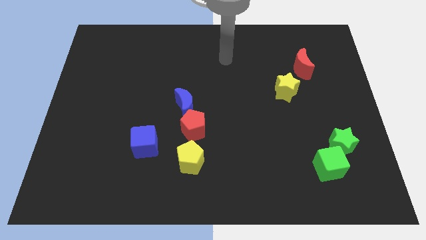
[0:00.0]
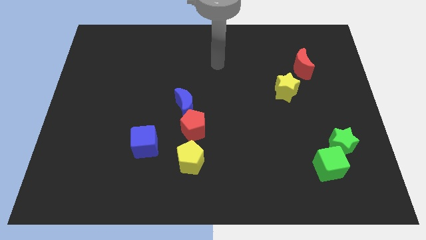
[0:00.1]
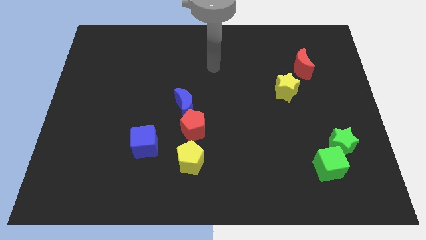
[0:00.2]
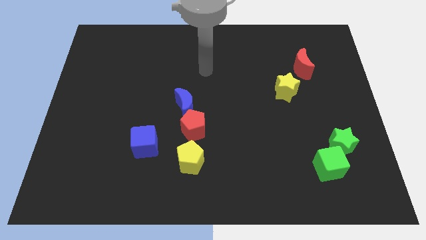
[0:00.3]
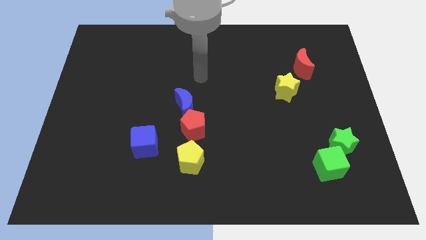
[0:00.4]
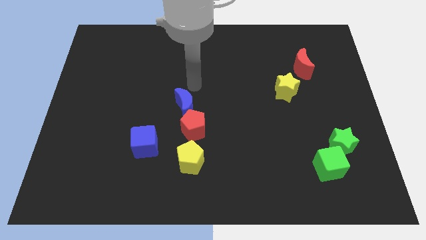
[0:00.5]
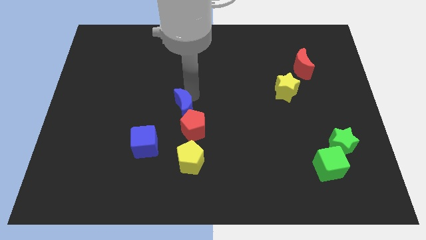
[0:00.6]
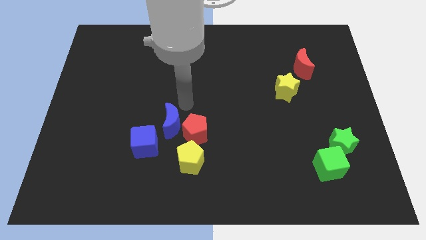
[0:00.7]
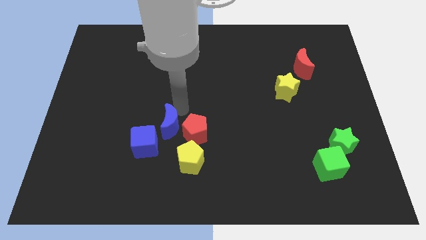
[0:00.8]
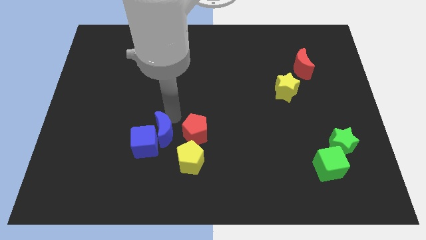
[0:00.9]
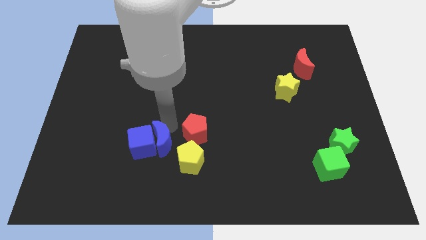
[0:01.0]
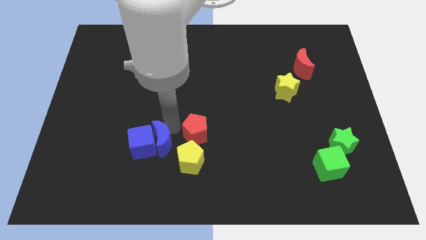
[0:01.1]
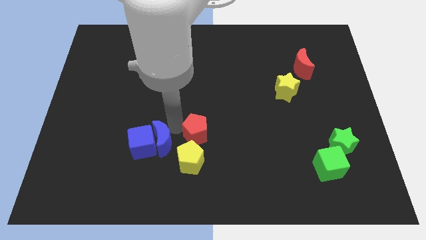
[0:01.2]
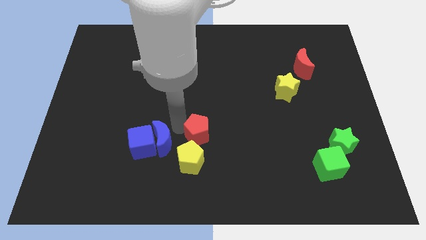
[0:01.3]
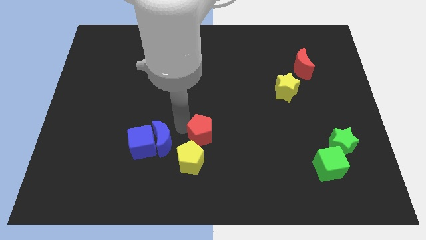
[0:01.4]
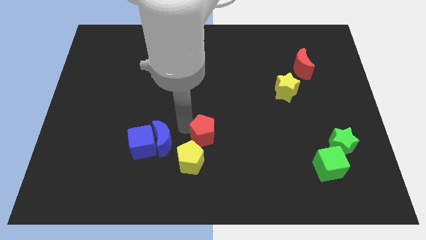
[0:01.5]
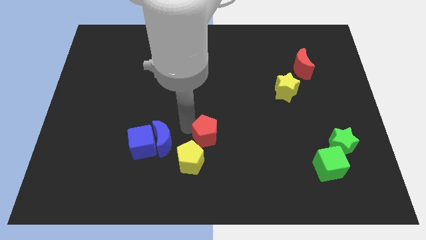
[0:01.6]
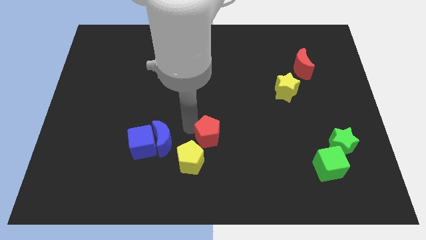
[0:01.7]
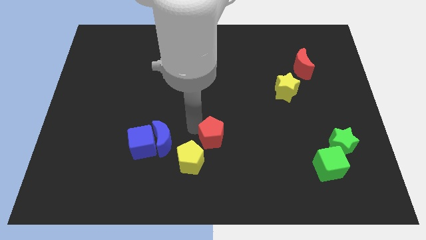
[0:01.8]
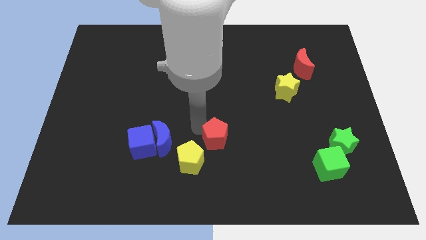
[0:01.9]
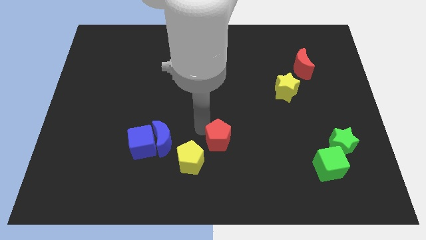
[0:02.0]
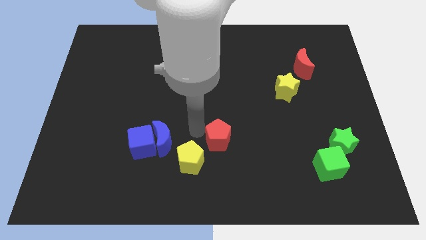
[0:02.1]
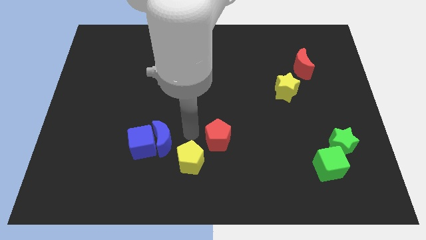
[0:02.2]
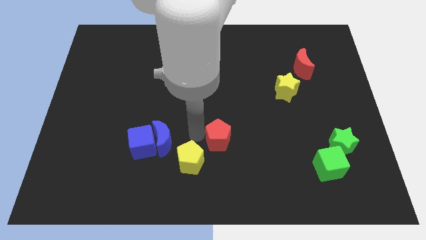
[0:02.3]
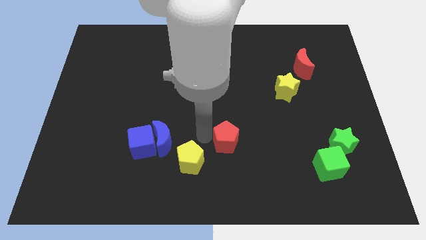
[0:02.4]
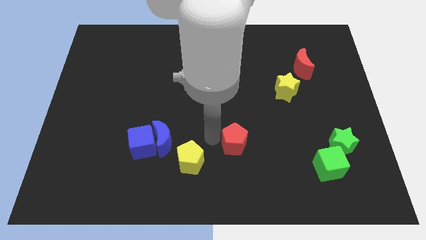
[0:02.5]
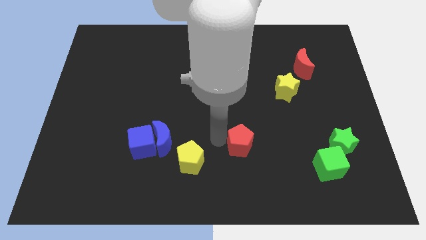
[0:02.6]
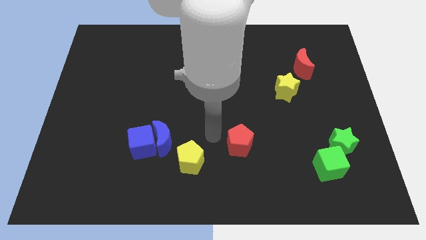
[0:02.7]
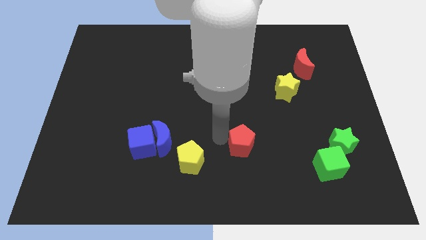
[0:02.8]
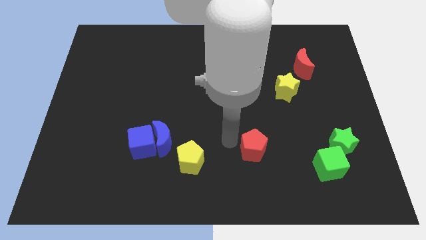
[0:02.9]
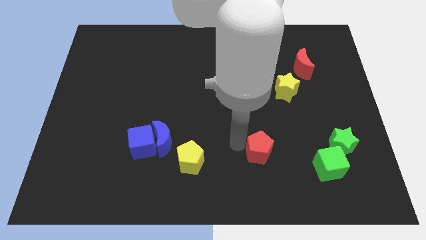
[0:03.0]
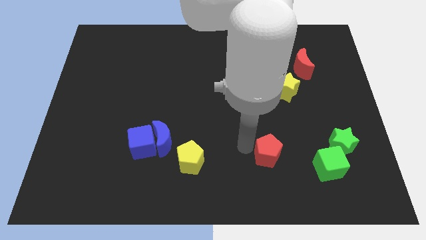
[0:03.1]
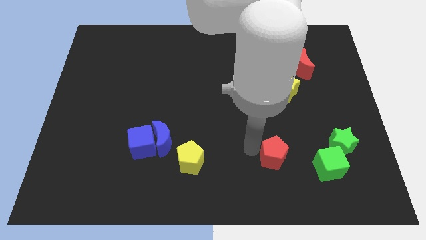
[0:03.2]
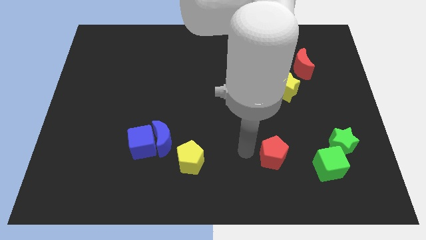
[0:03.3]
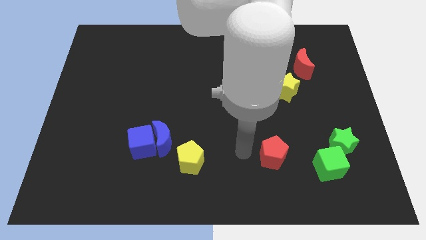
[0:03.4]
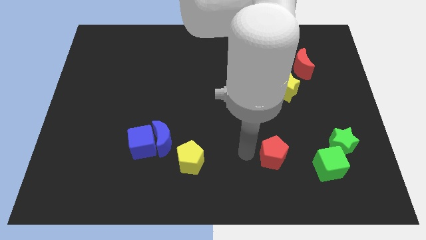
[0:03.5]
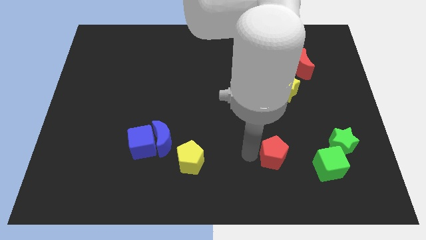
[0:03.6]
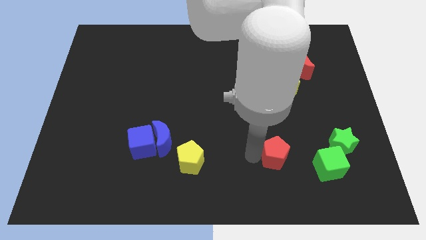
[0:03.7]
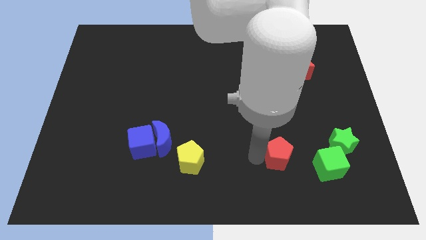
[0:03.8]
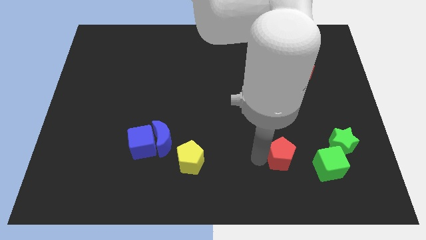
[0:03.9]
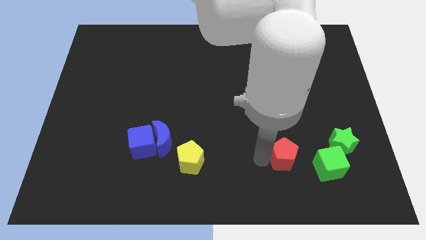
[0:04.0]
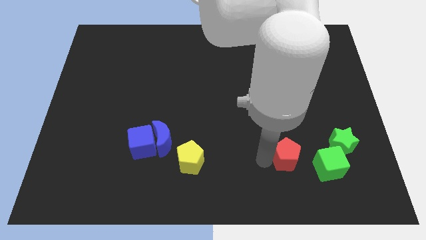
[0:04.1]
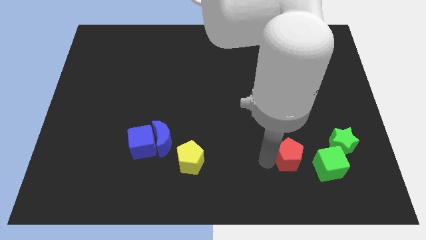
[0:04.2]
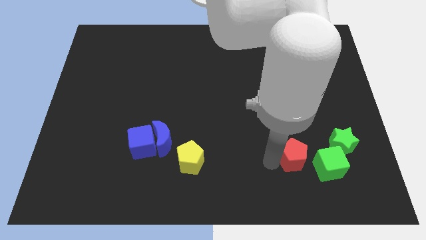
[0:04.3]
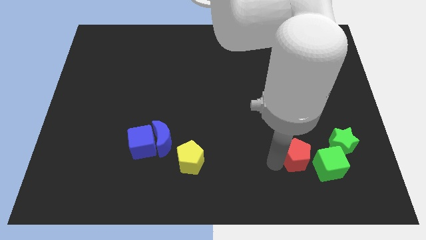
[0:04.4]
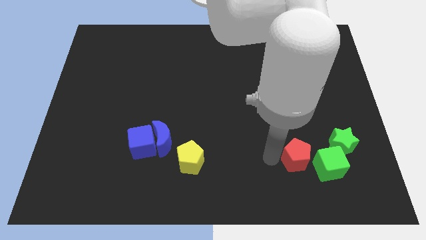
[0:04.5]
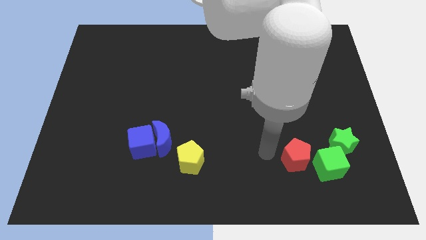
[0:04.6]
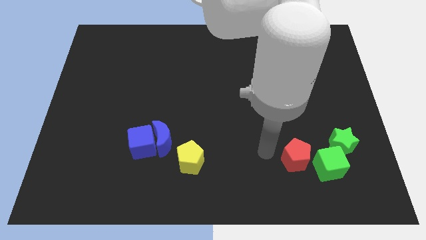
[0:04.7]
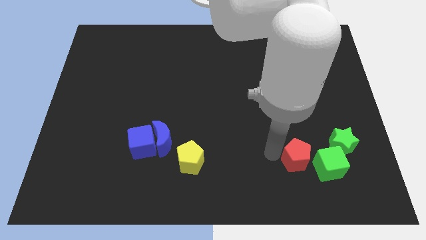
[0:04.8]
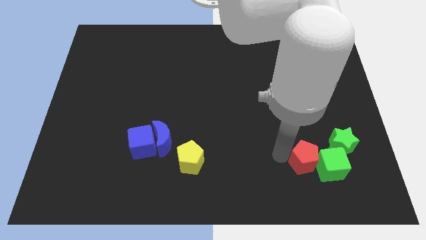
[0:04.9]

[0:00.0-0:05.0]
move the red pentagon towards the green cube

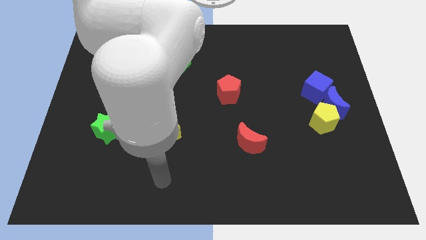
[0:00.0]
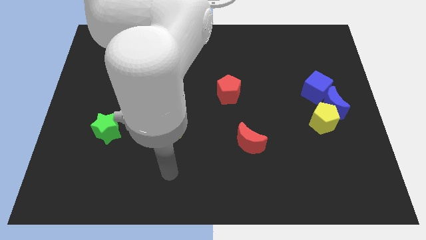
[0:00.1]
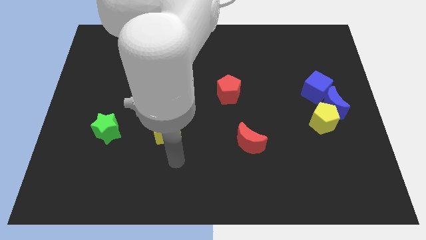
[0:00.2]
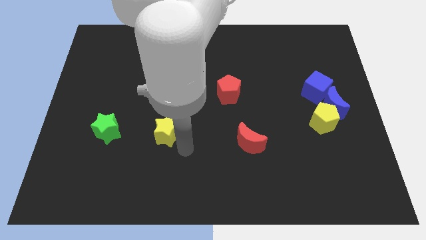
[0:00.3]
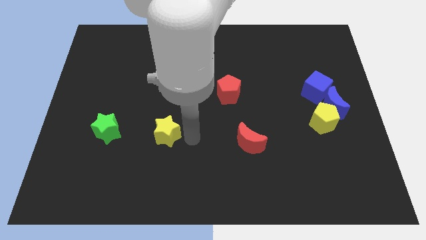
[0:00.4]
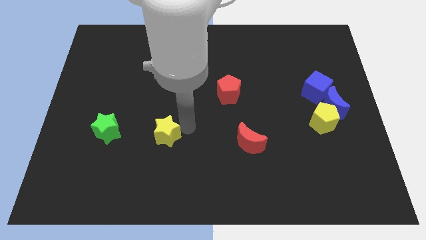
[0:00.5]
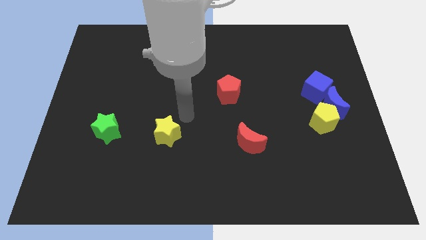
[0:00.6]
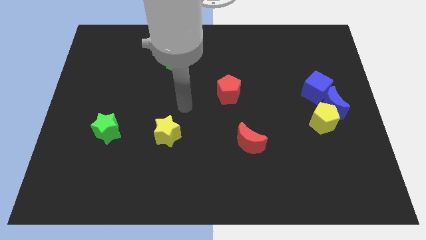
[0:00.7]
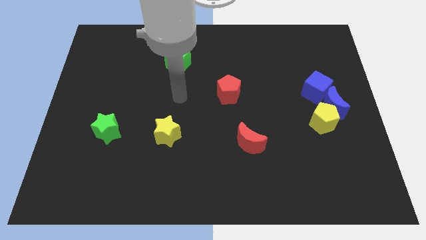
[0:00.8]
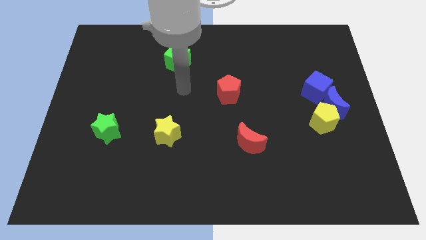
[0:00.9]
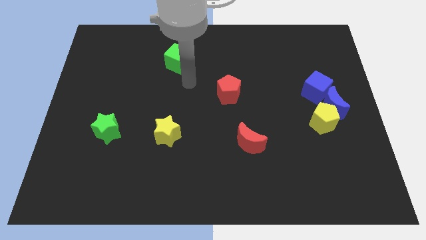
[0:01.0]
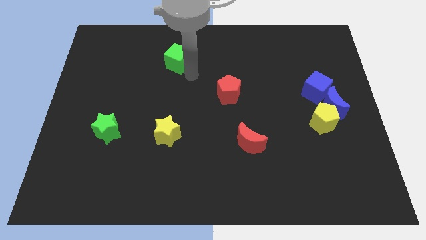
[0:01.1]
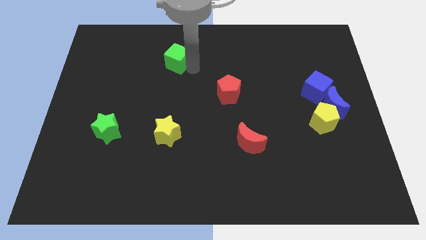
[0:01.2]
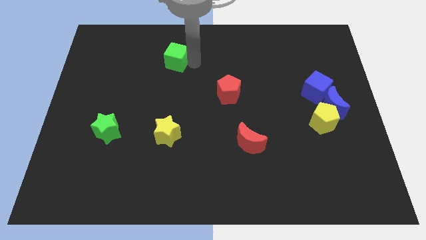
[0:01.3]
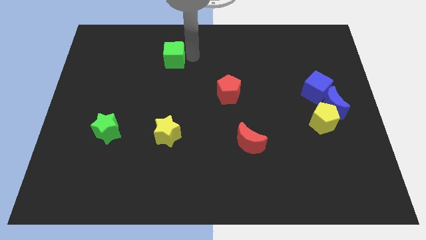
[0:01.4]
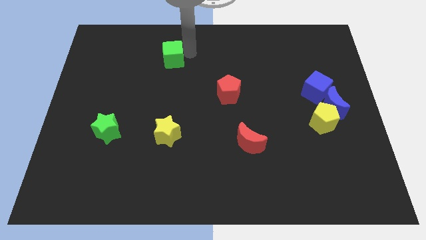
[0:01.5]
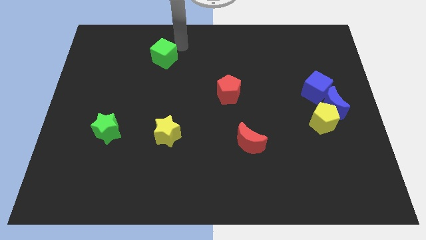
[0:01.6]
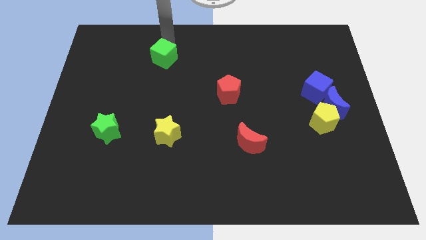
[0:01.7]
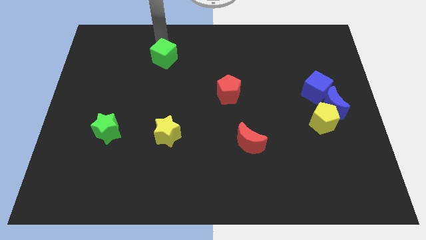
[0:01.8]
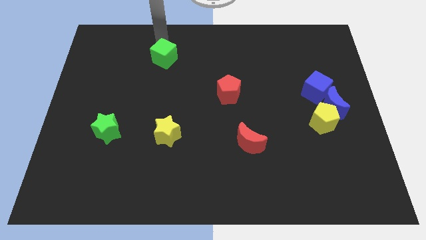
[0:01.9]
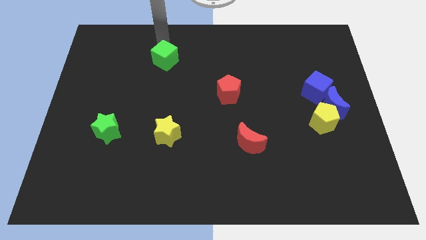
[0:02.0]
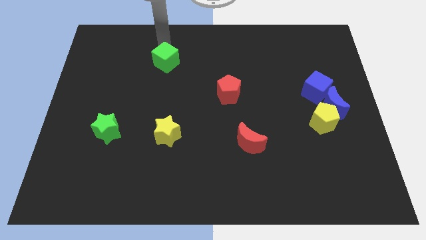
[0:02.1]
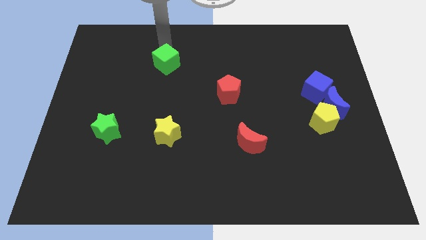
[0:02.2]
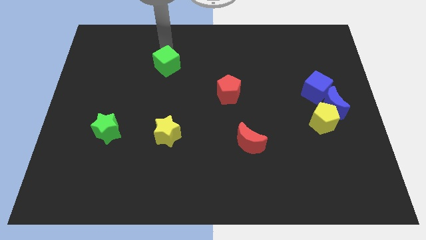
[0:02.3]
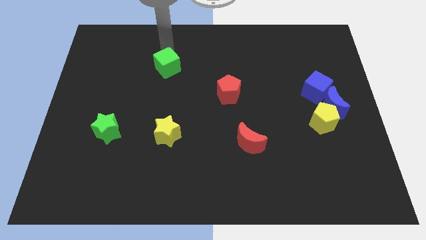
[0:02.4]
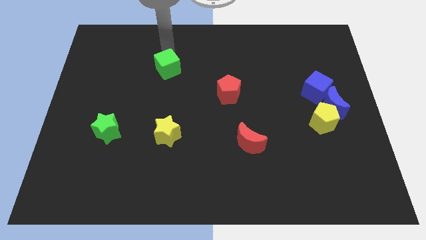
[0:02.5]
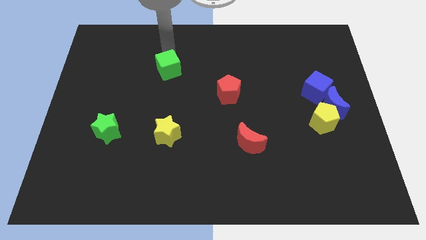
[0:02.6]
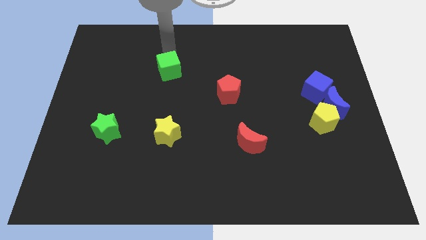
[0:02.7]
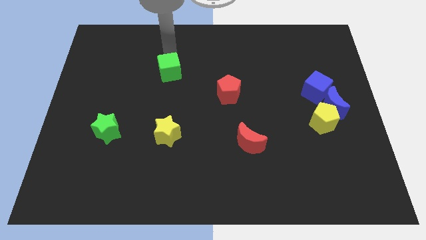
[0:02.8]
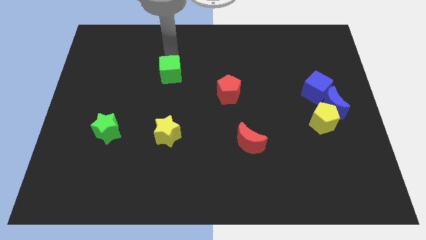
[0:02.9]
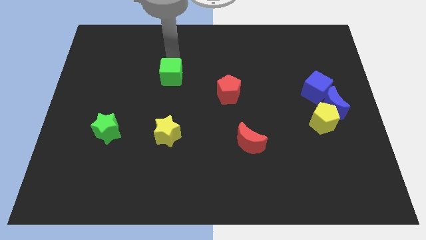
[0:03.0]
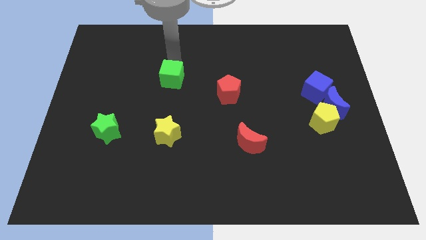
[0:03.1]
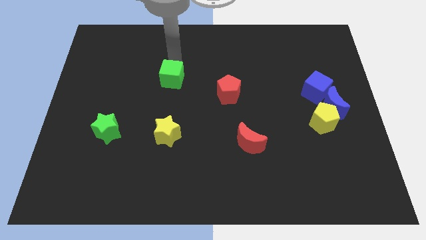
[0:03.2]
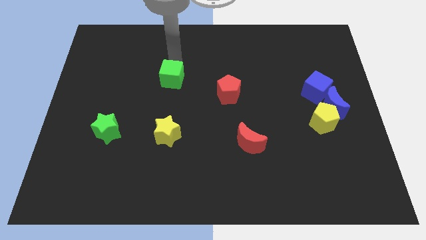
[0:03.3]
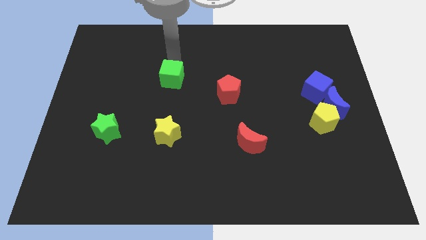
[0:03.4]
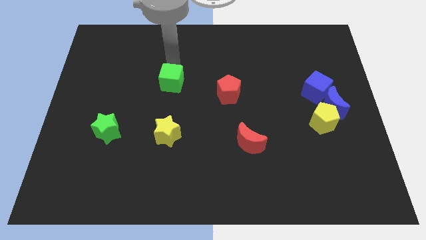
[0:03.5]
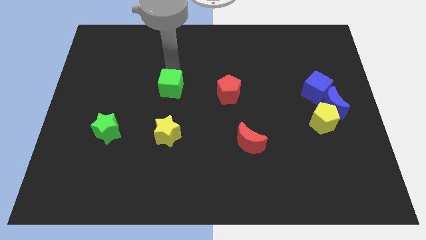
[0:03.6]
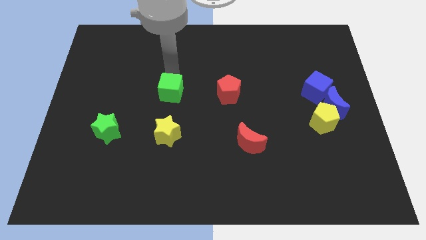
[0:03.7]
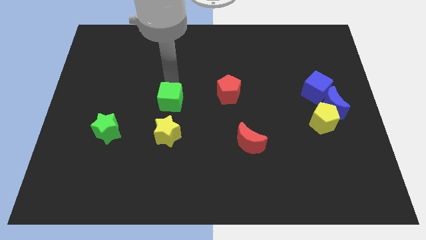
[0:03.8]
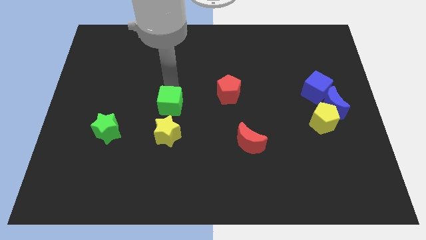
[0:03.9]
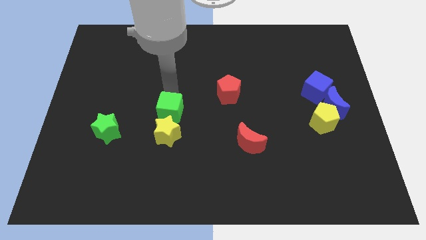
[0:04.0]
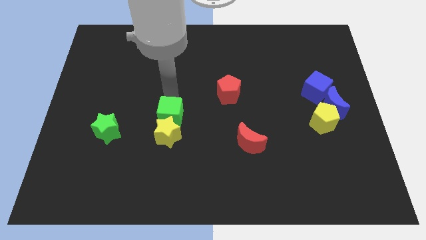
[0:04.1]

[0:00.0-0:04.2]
move the green cube to the yellow star
